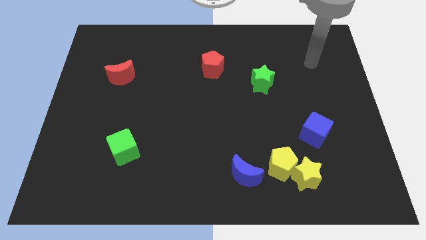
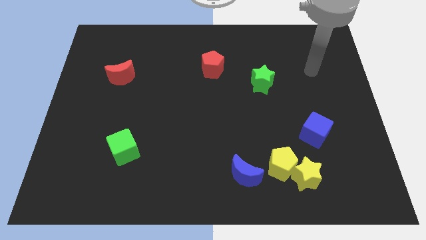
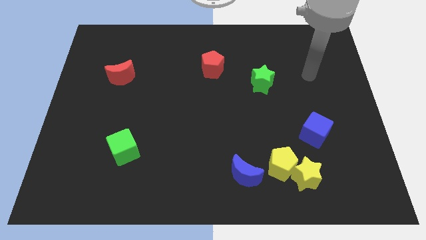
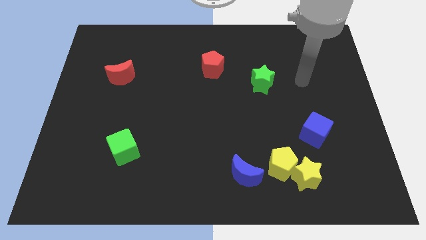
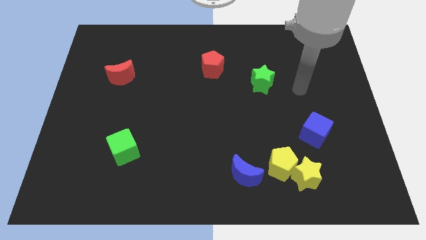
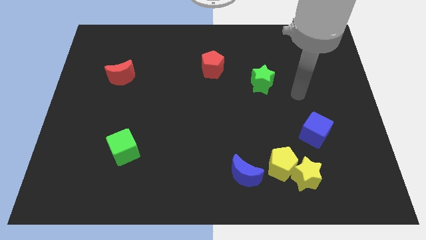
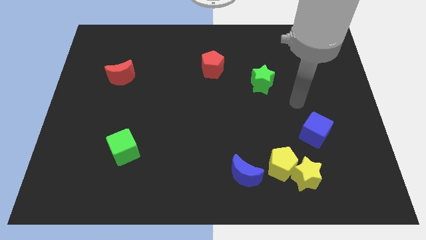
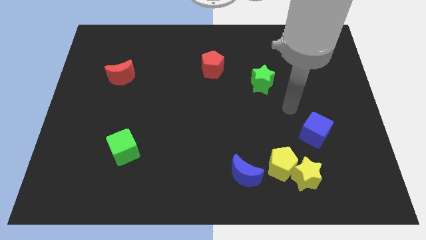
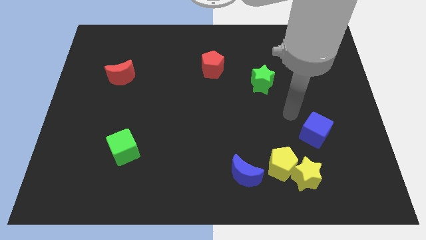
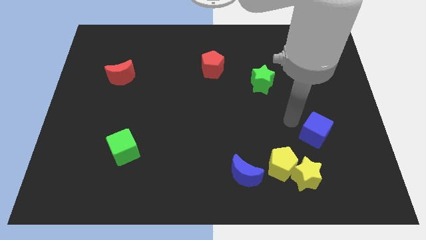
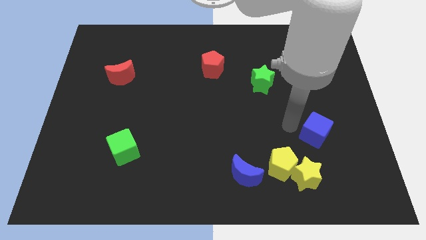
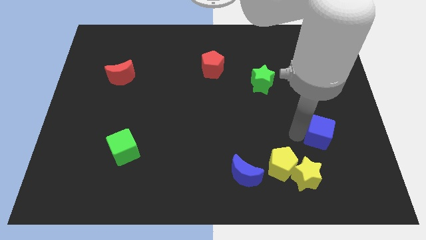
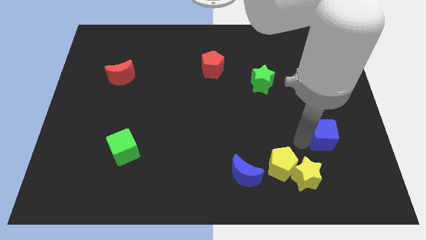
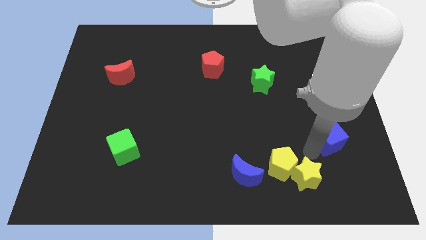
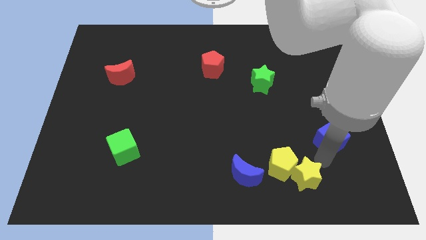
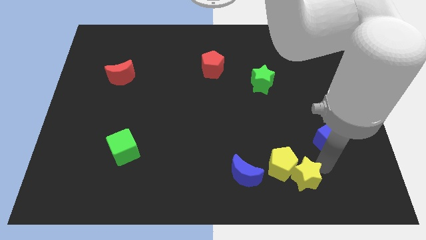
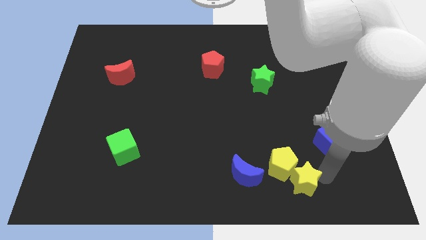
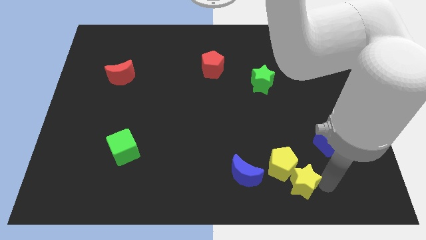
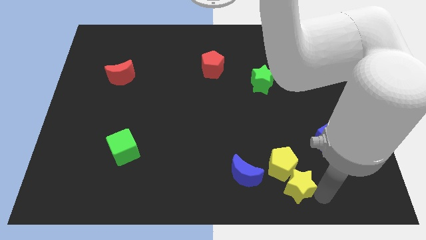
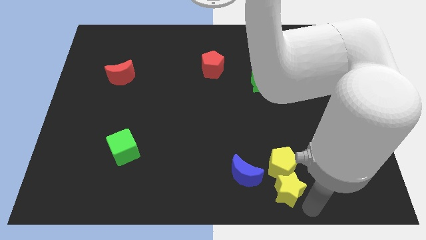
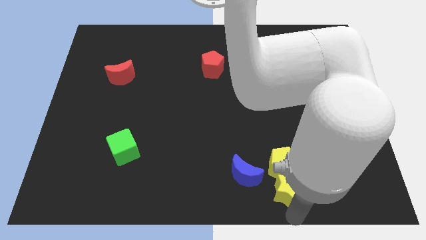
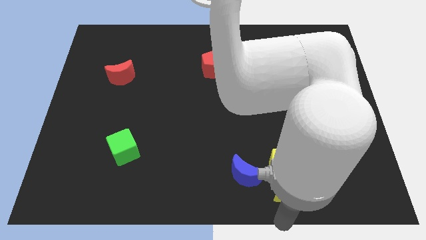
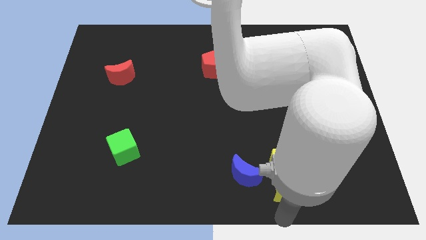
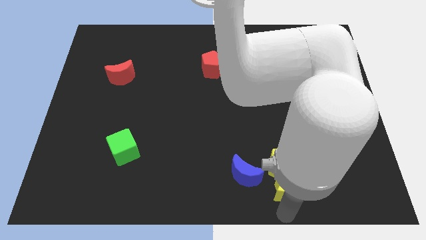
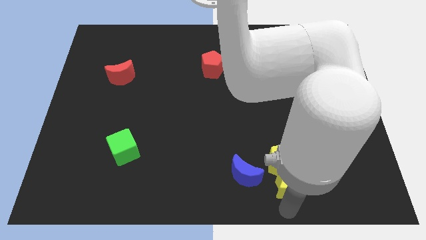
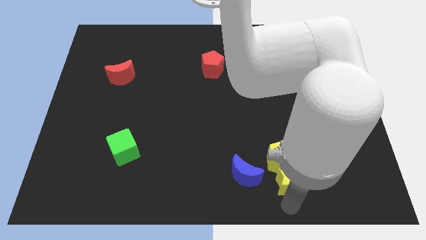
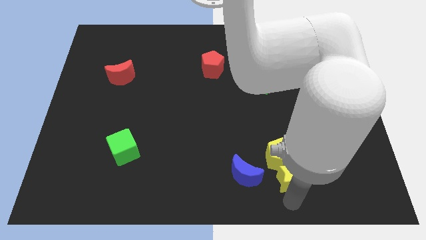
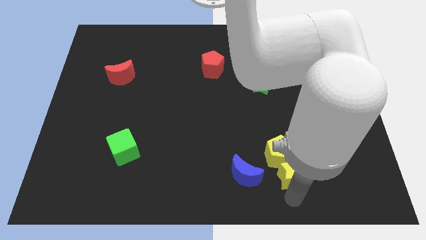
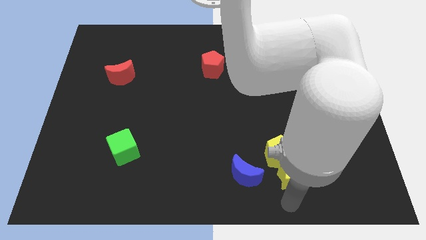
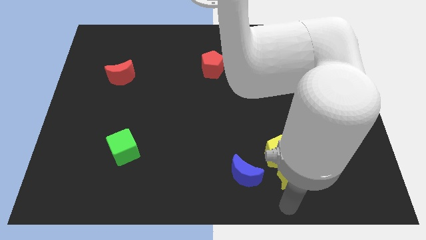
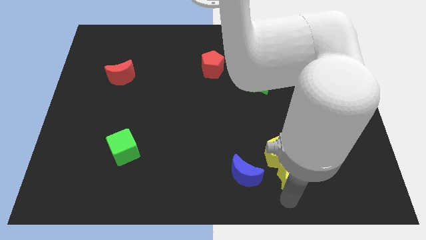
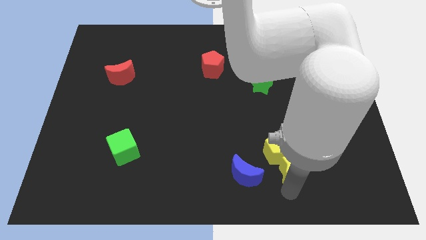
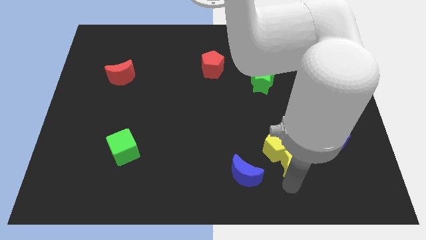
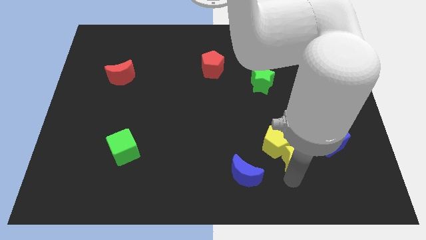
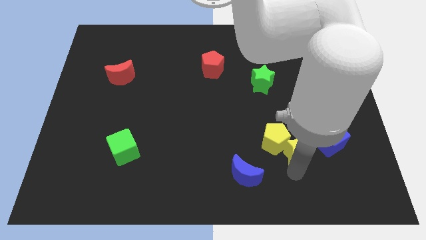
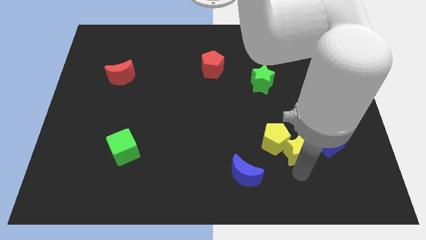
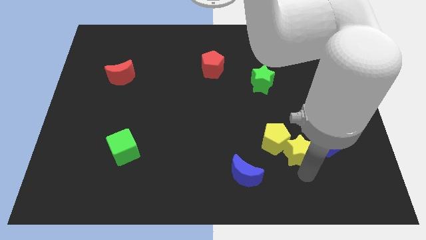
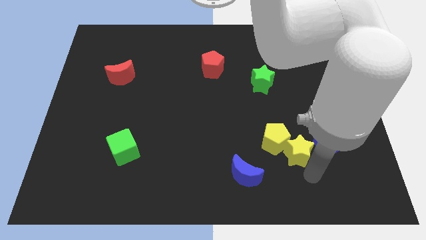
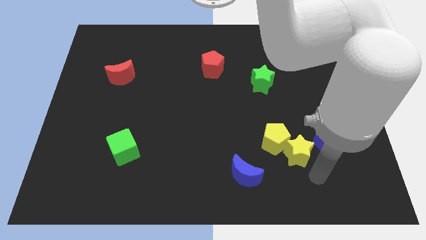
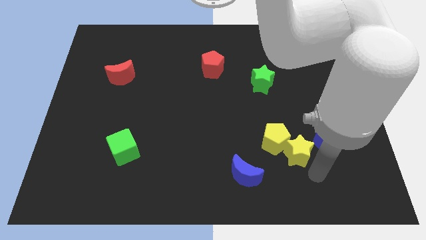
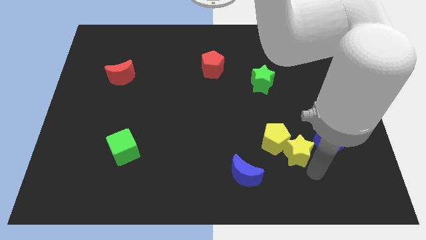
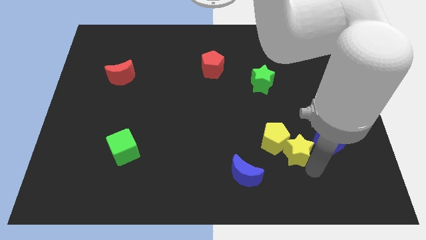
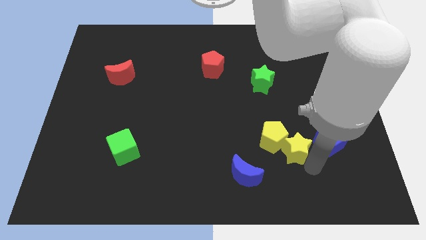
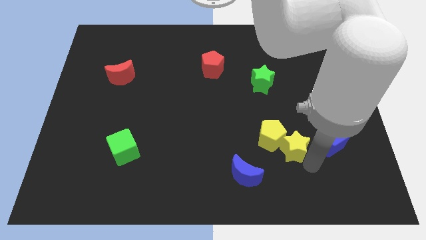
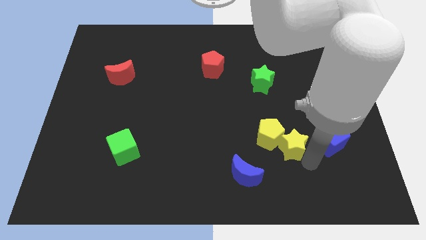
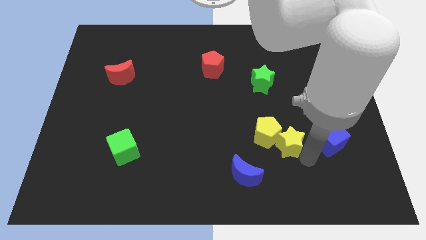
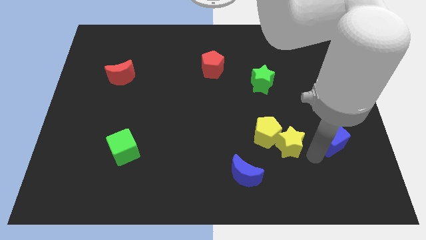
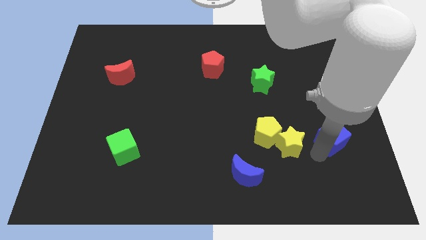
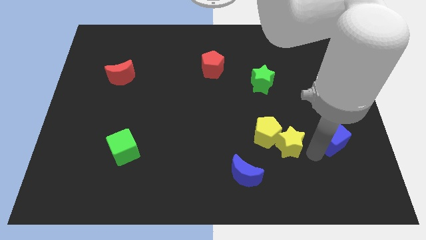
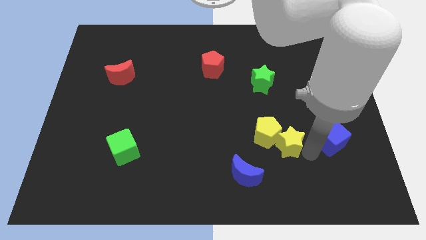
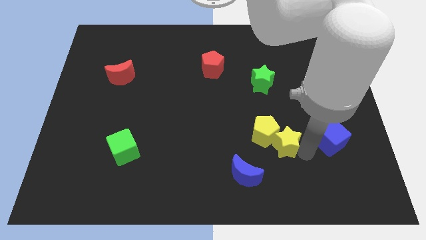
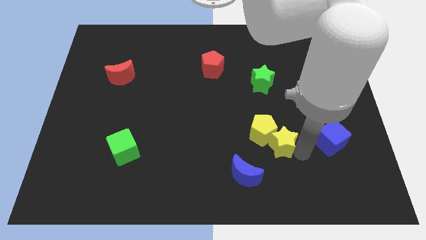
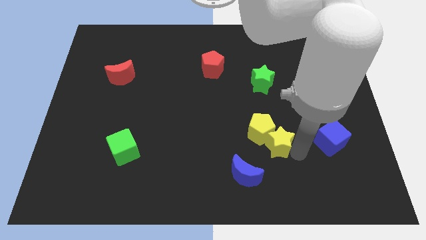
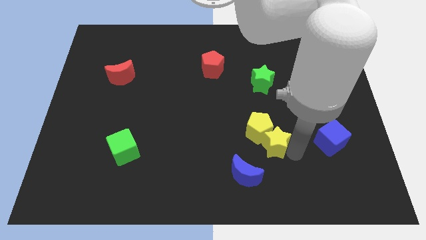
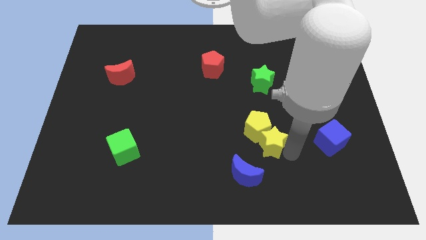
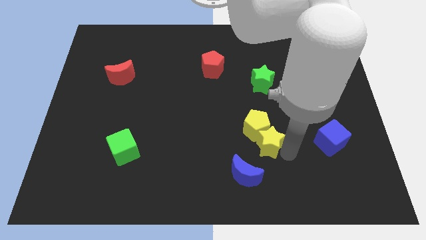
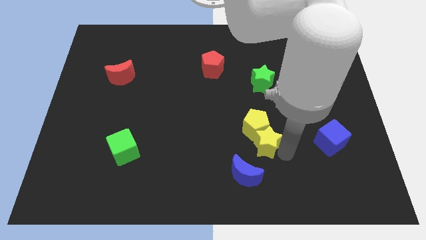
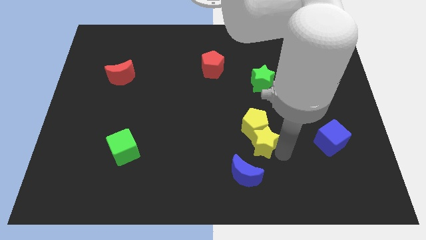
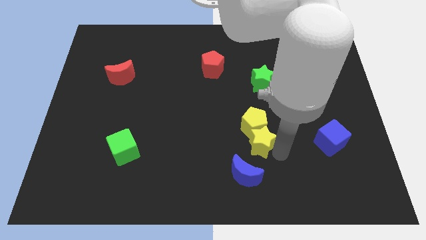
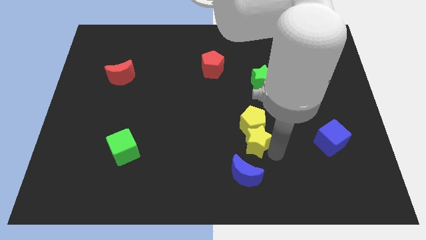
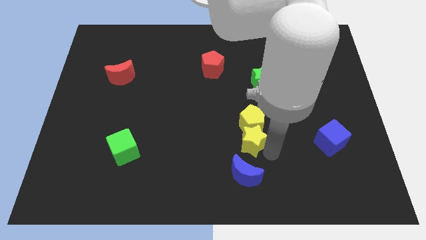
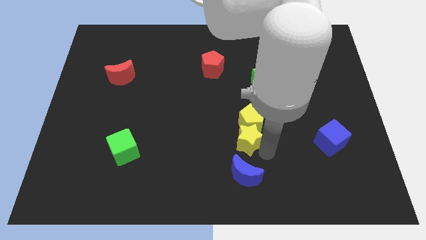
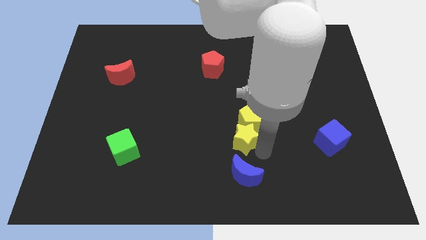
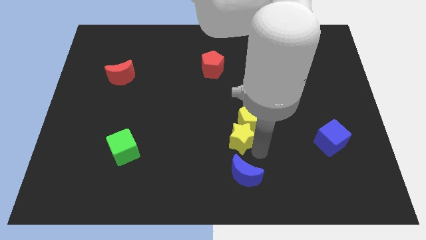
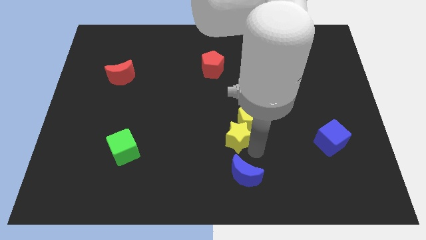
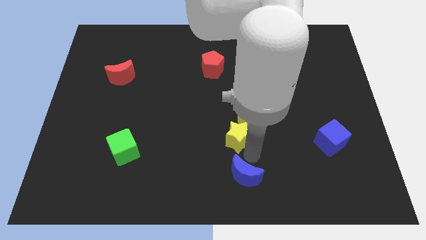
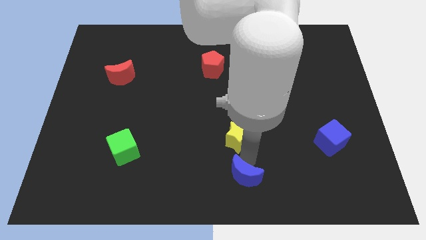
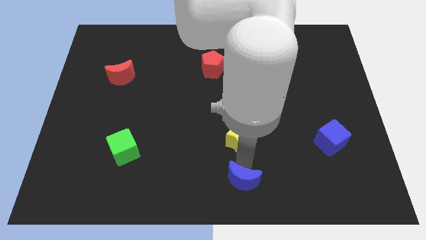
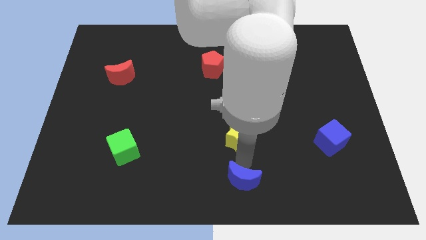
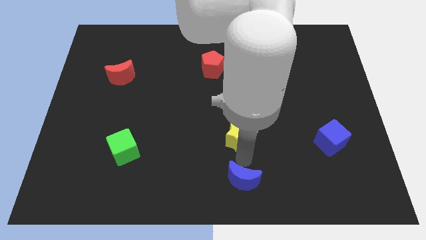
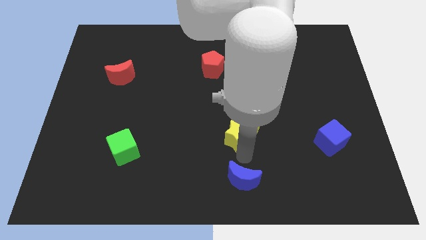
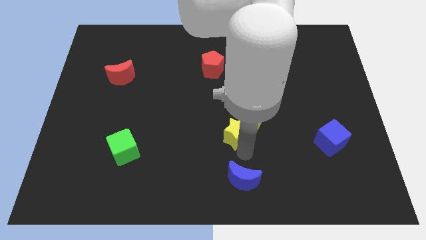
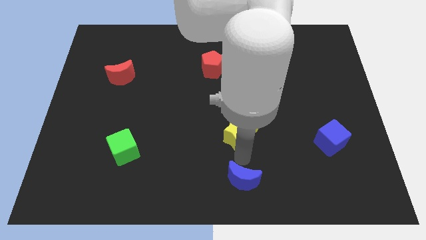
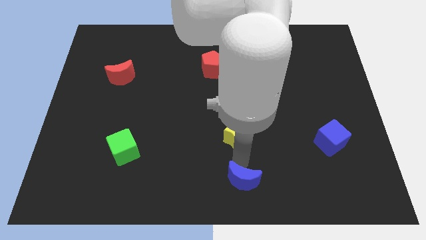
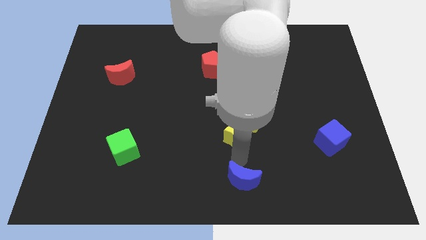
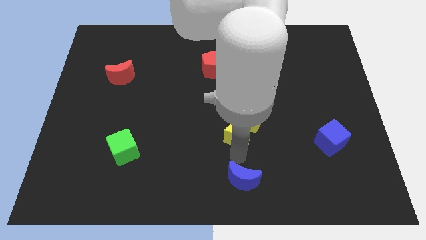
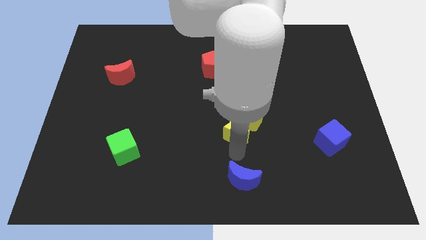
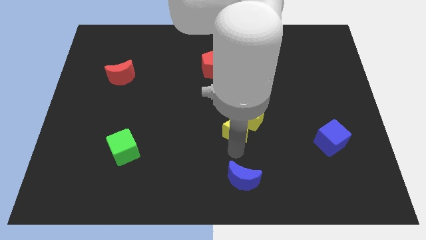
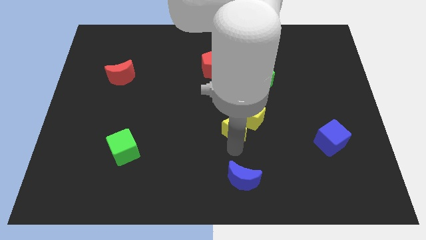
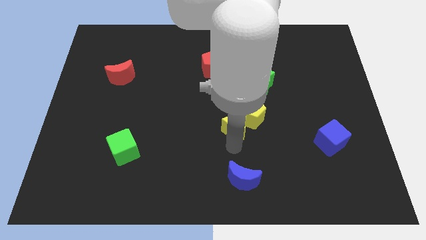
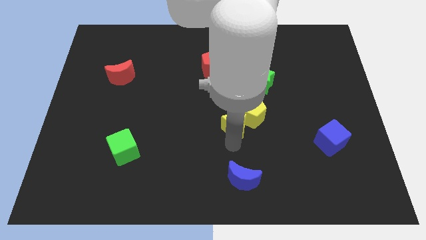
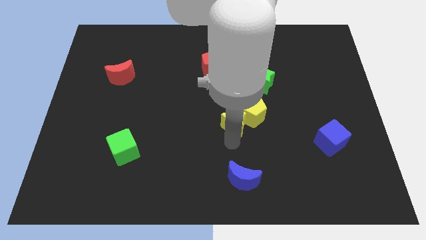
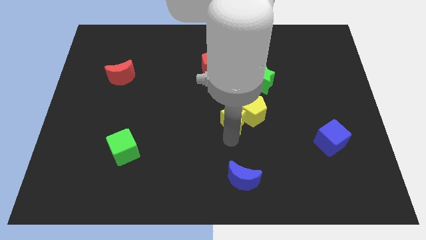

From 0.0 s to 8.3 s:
slide the yellow star diagonally upwards and left
